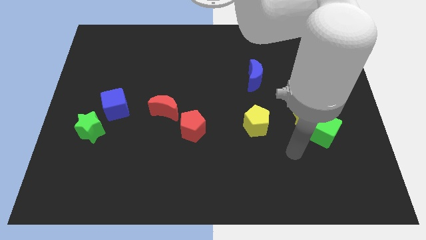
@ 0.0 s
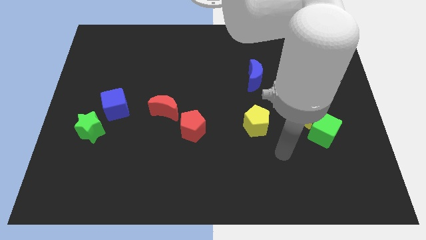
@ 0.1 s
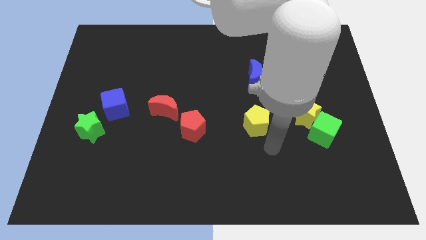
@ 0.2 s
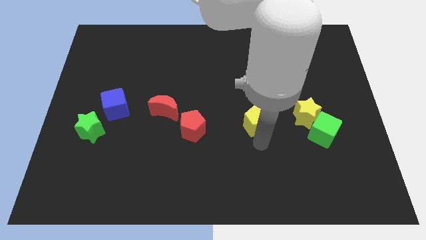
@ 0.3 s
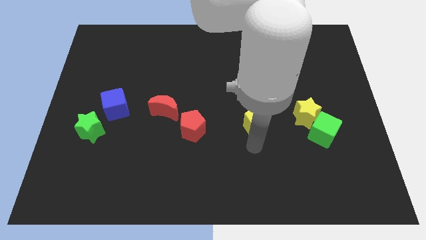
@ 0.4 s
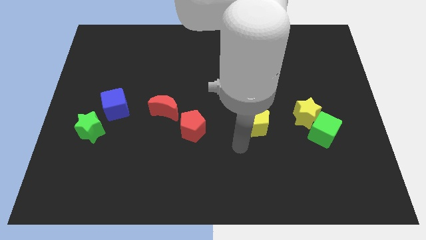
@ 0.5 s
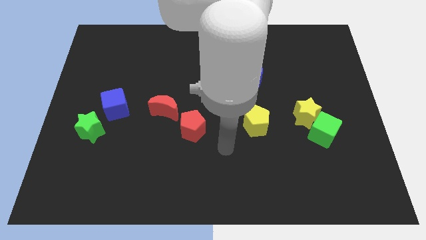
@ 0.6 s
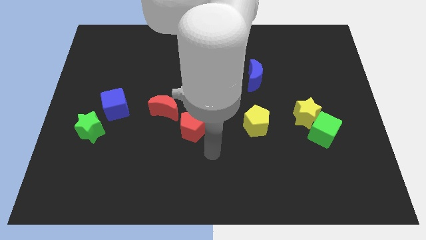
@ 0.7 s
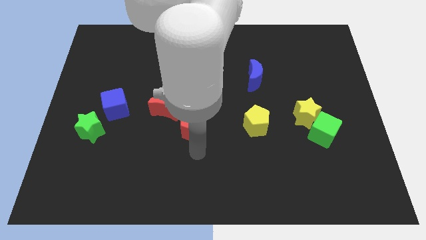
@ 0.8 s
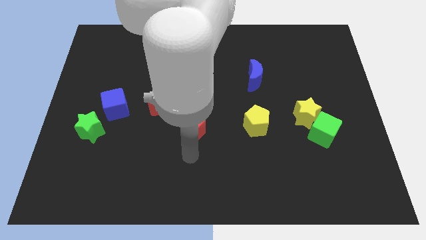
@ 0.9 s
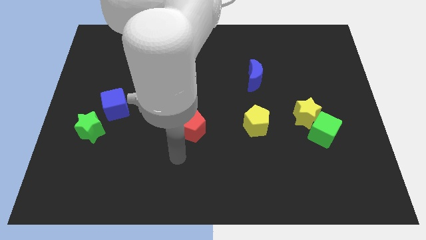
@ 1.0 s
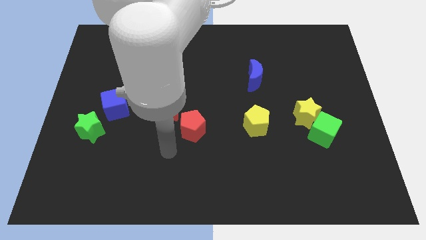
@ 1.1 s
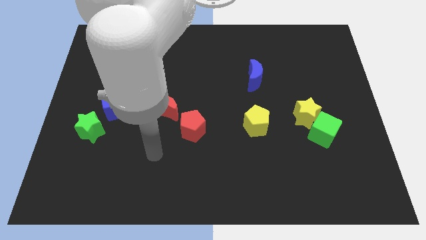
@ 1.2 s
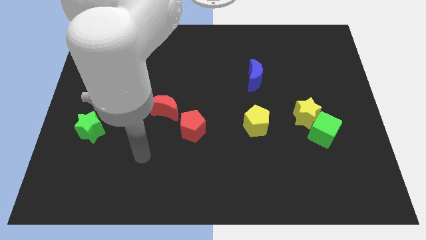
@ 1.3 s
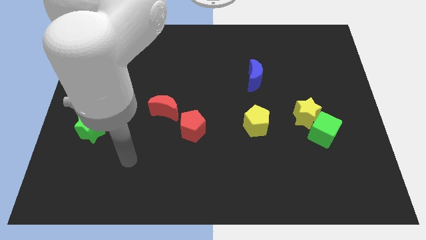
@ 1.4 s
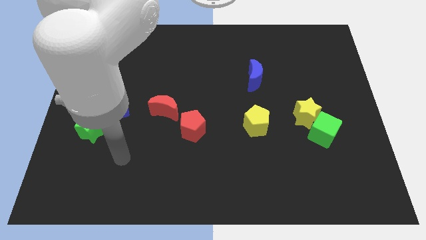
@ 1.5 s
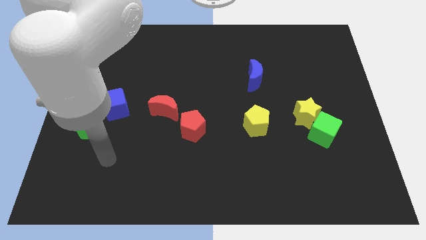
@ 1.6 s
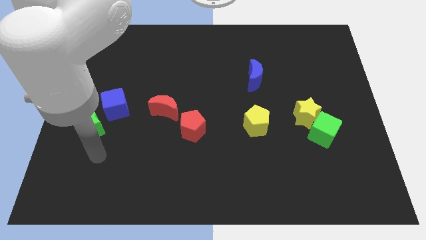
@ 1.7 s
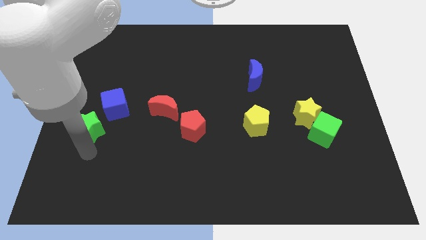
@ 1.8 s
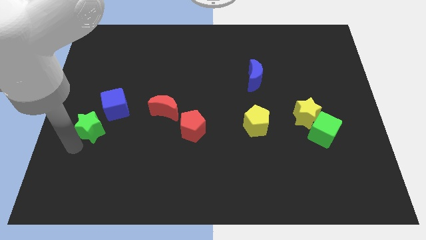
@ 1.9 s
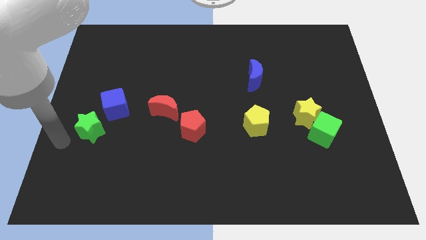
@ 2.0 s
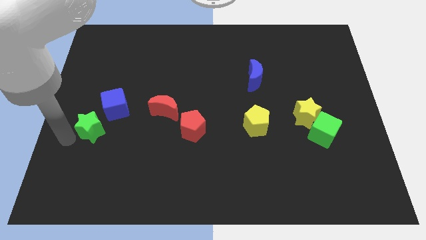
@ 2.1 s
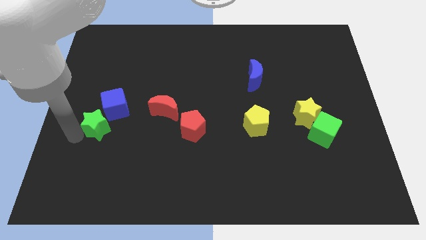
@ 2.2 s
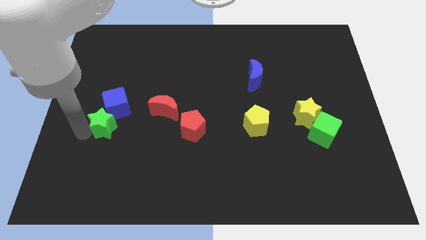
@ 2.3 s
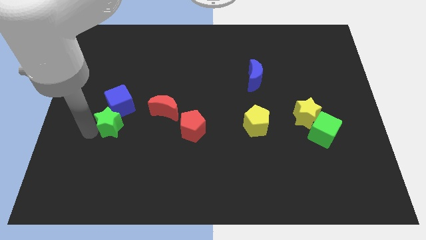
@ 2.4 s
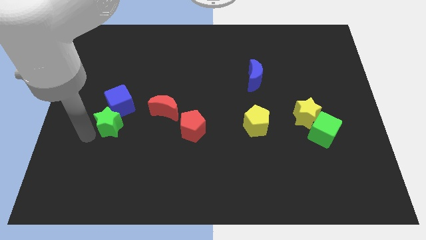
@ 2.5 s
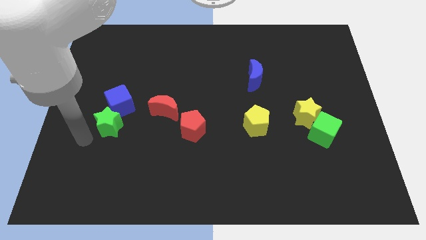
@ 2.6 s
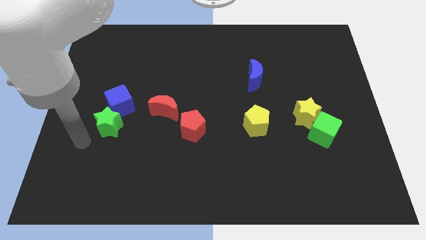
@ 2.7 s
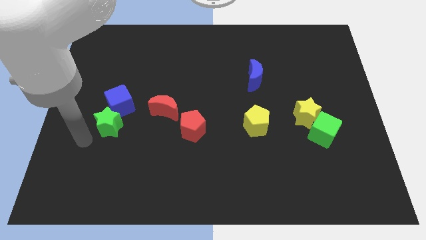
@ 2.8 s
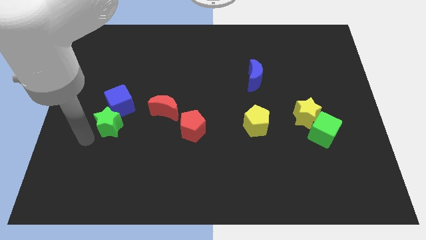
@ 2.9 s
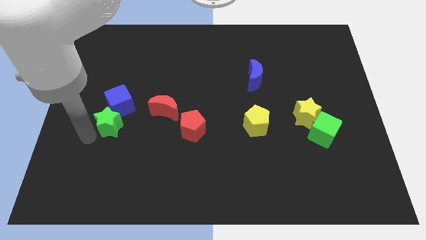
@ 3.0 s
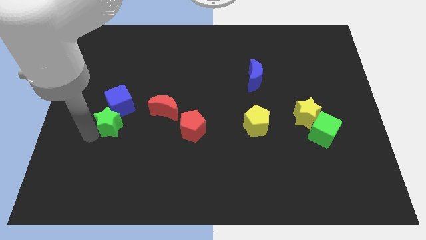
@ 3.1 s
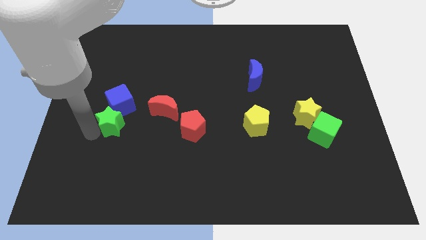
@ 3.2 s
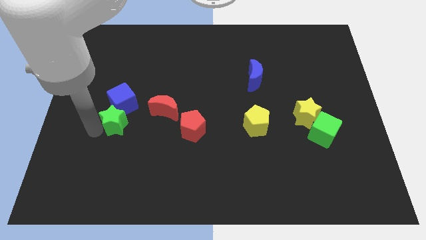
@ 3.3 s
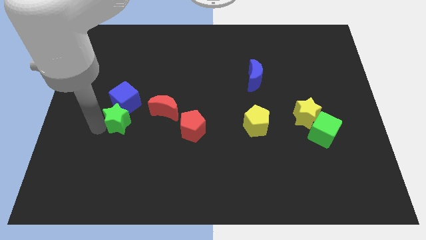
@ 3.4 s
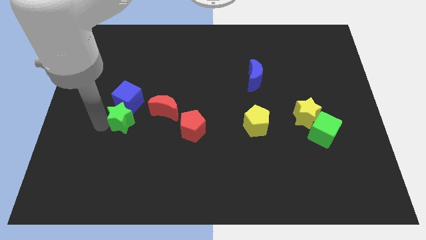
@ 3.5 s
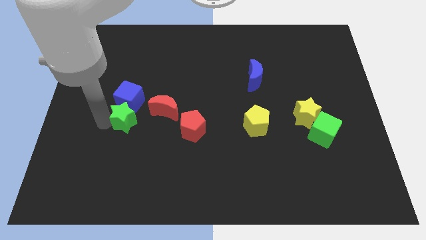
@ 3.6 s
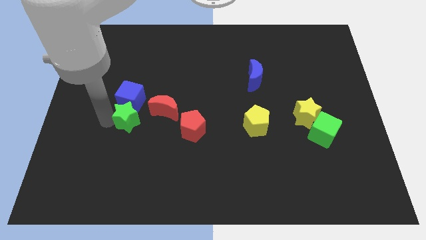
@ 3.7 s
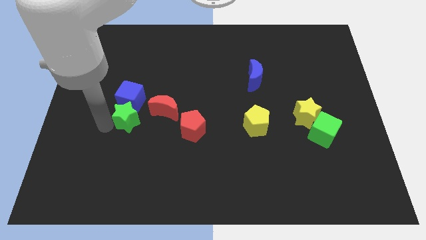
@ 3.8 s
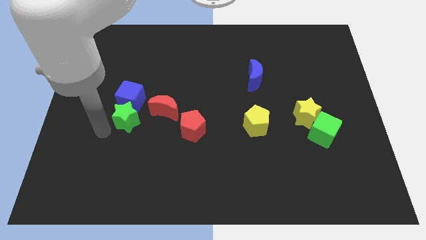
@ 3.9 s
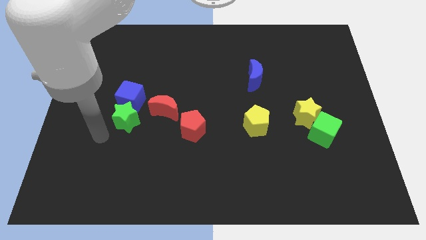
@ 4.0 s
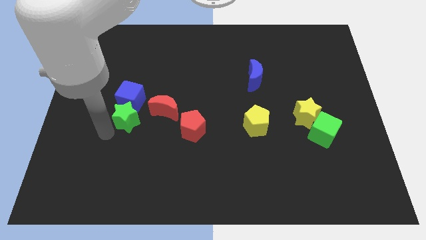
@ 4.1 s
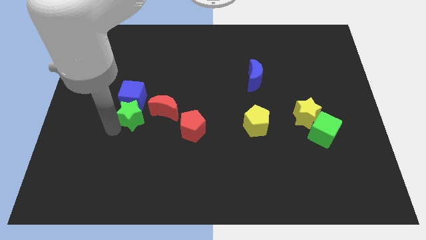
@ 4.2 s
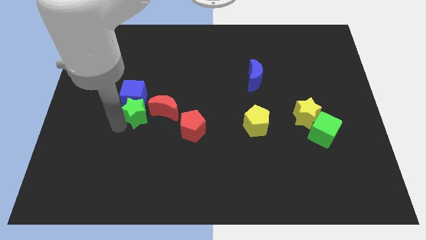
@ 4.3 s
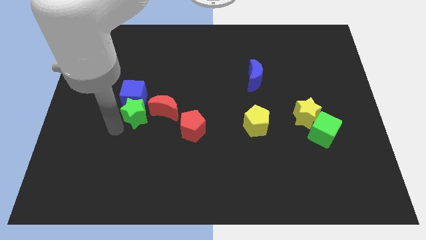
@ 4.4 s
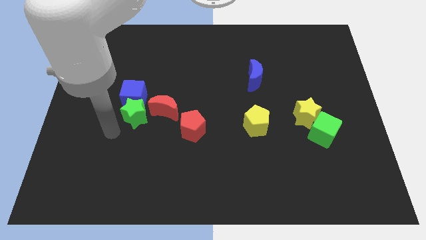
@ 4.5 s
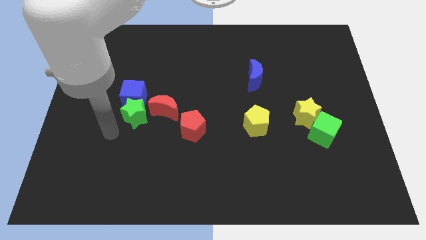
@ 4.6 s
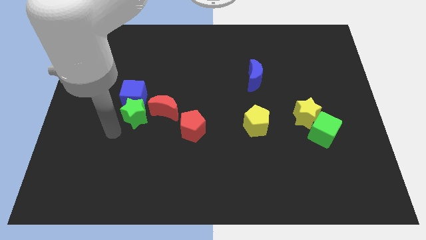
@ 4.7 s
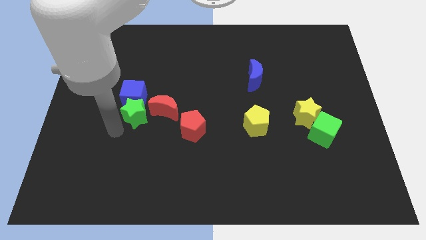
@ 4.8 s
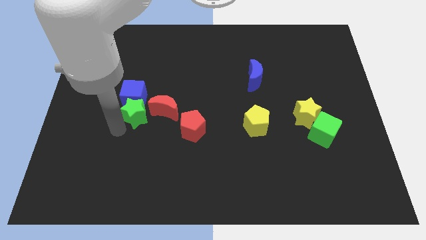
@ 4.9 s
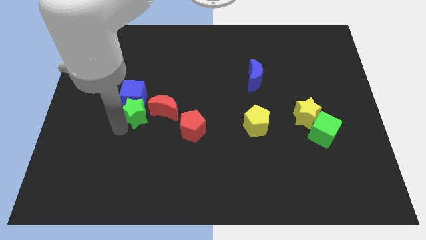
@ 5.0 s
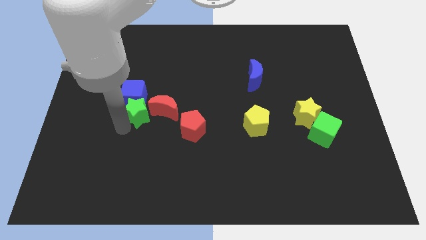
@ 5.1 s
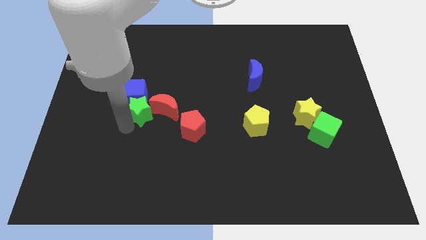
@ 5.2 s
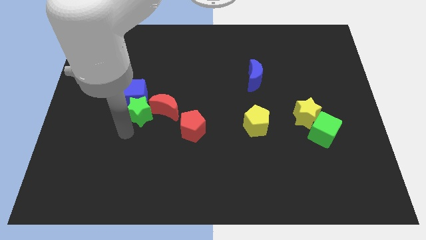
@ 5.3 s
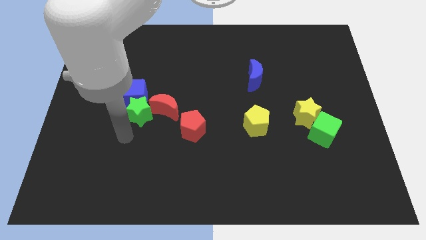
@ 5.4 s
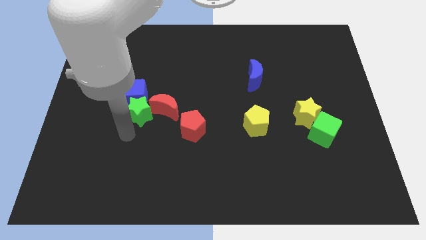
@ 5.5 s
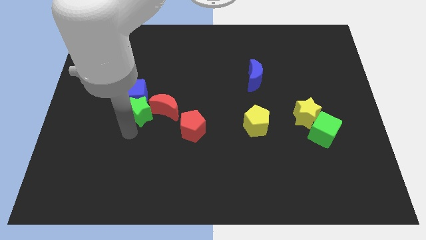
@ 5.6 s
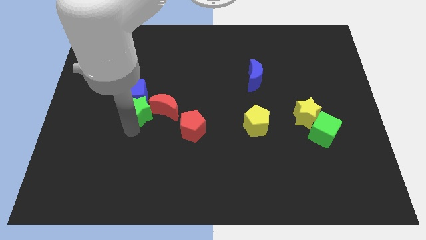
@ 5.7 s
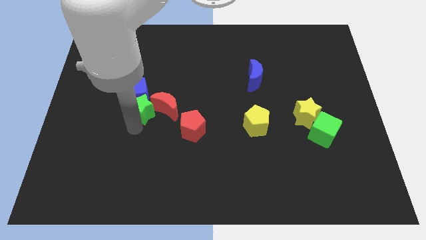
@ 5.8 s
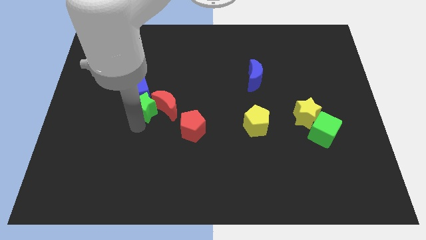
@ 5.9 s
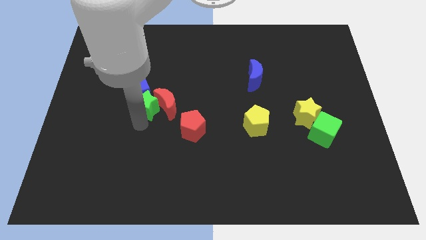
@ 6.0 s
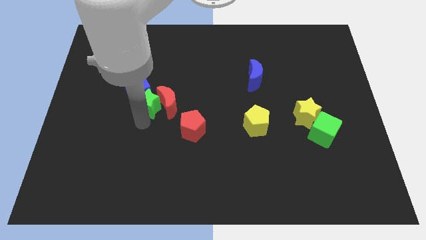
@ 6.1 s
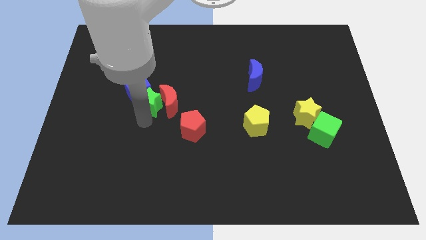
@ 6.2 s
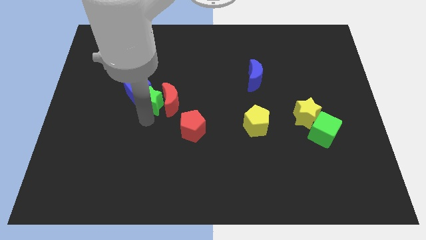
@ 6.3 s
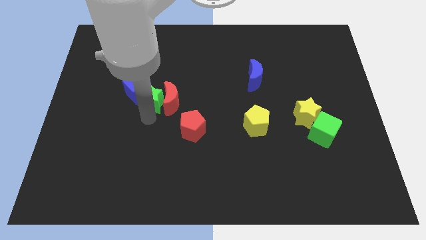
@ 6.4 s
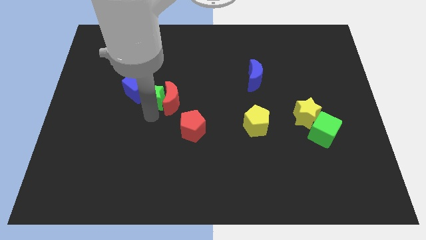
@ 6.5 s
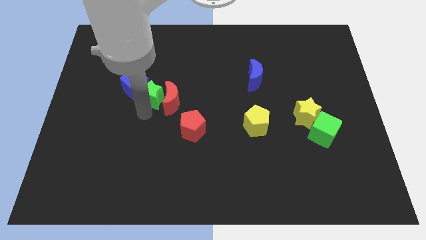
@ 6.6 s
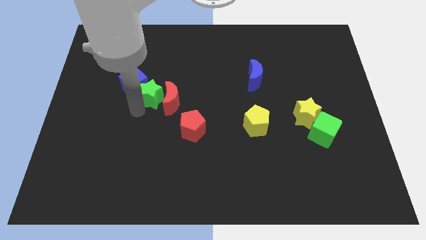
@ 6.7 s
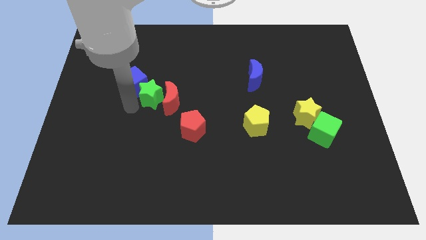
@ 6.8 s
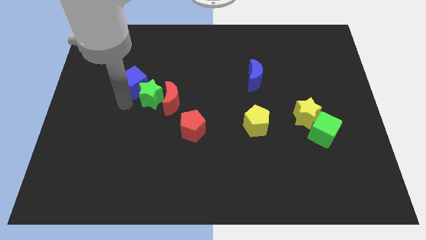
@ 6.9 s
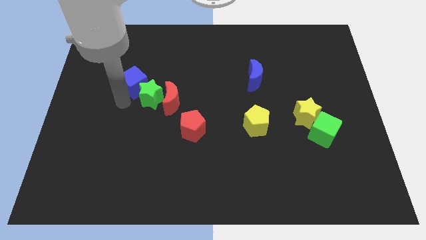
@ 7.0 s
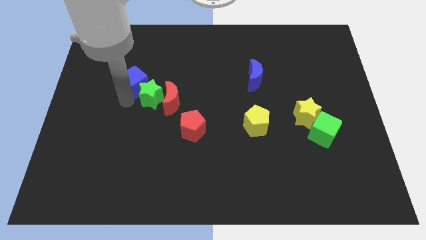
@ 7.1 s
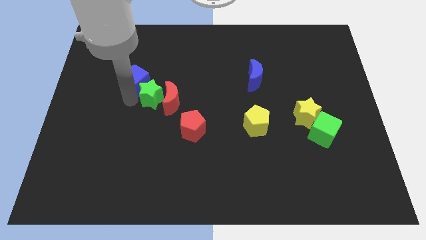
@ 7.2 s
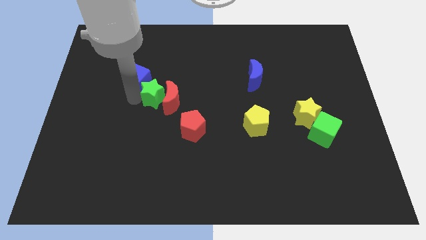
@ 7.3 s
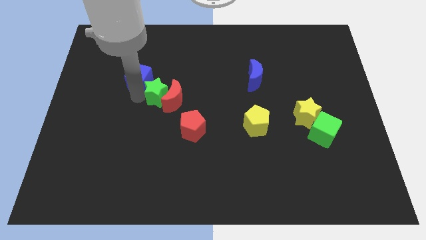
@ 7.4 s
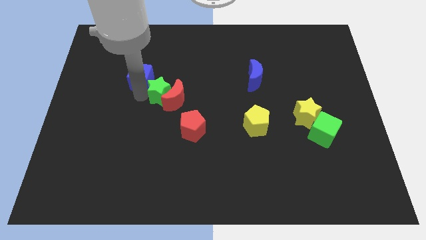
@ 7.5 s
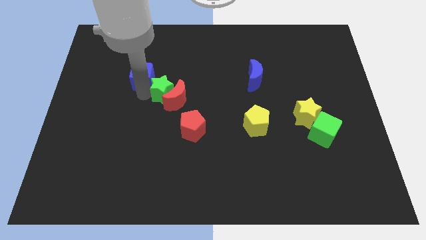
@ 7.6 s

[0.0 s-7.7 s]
move the green star to the center
